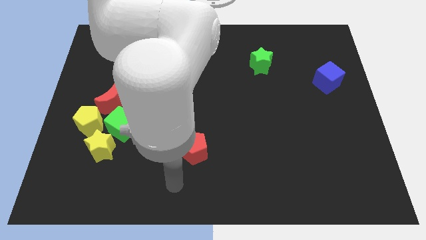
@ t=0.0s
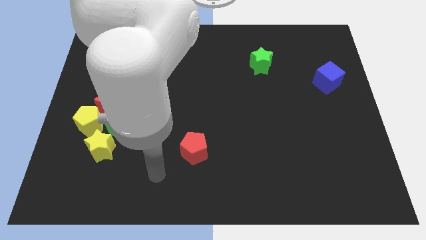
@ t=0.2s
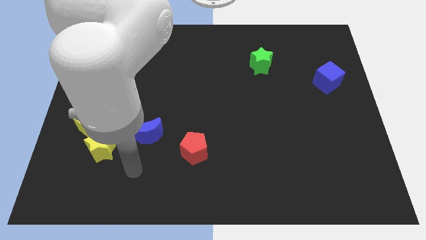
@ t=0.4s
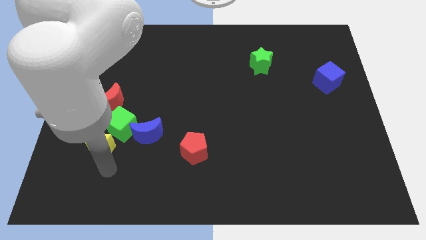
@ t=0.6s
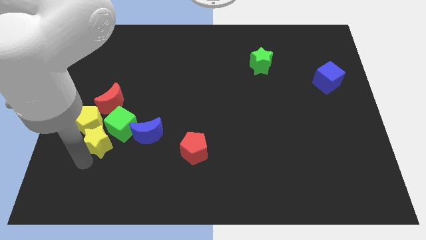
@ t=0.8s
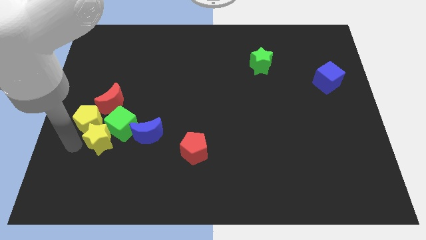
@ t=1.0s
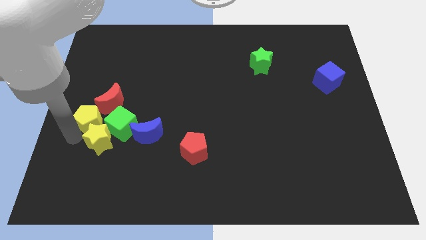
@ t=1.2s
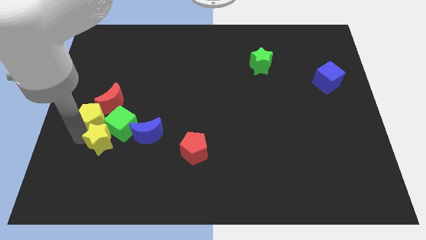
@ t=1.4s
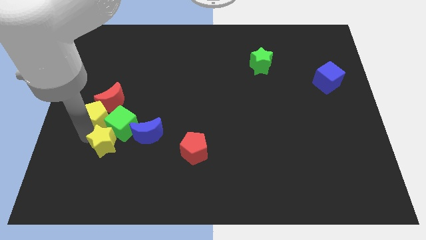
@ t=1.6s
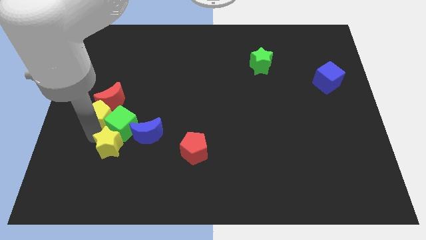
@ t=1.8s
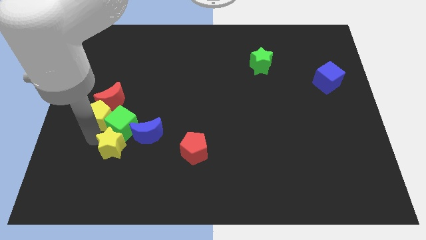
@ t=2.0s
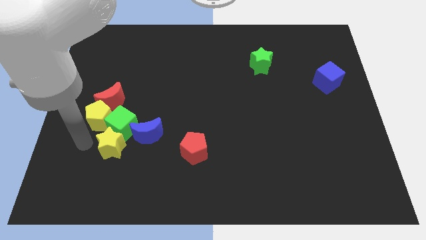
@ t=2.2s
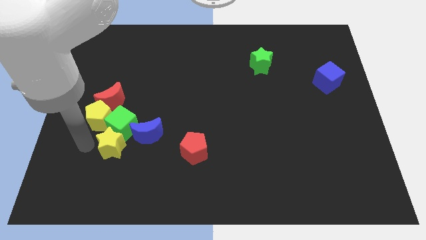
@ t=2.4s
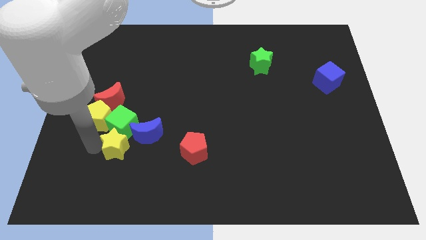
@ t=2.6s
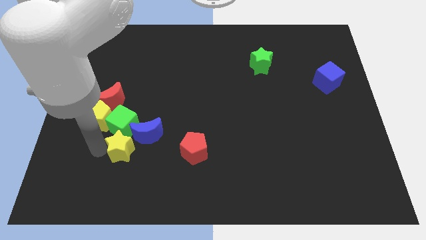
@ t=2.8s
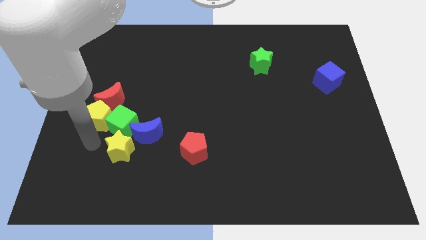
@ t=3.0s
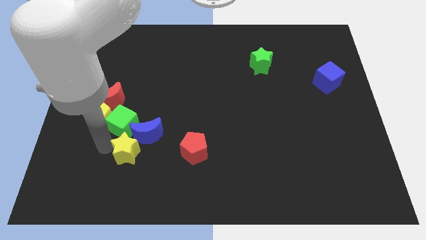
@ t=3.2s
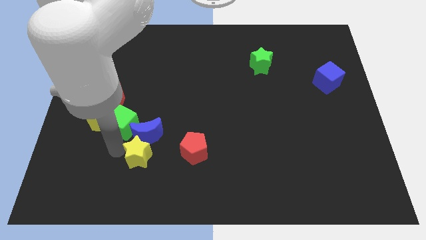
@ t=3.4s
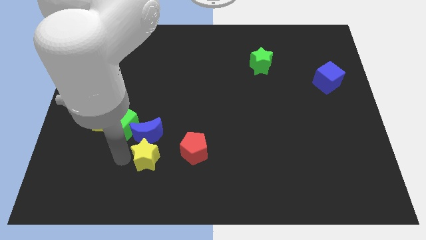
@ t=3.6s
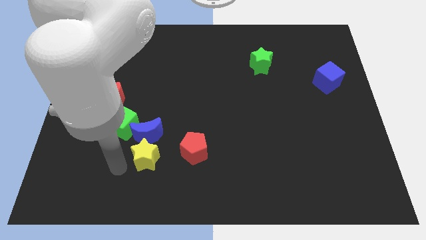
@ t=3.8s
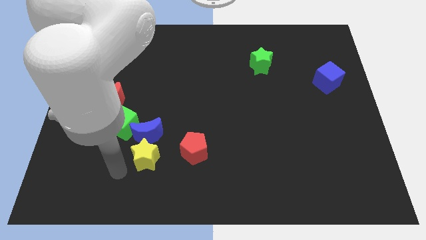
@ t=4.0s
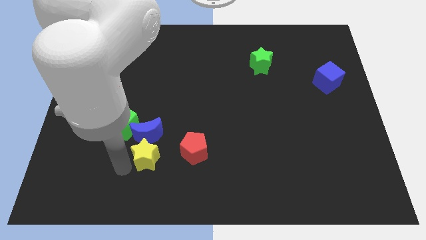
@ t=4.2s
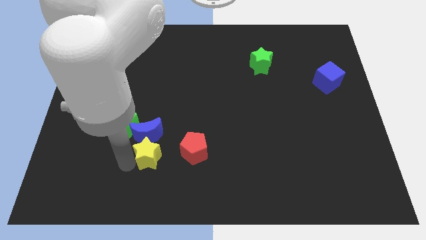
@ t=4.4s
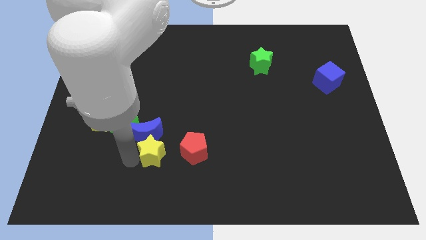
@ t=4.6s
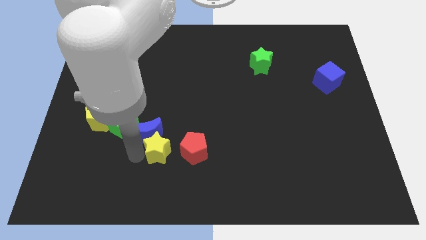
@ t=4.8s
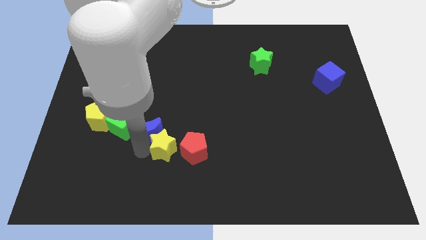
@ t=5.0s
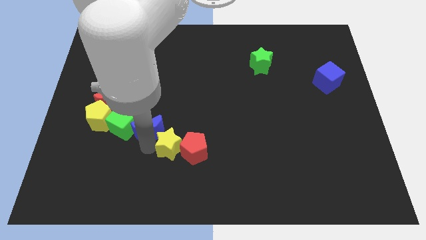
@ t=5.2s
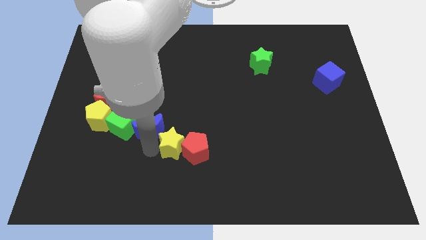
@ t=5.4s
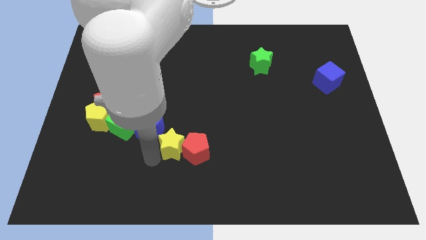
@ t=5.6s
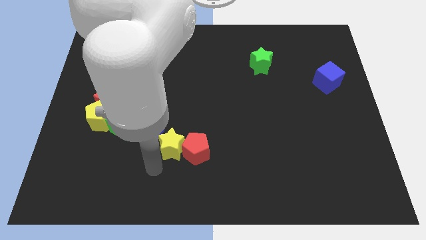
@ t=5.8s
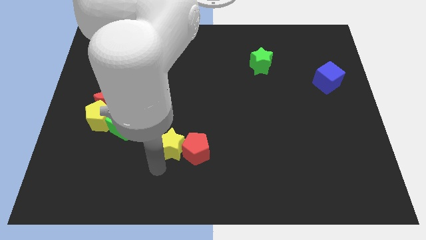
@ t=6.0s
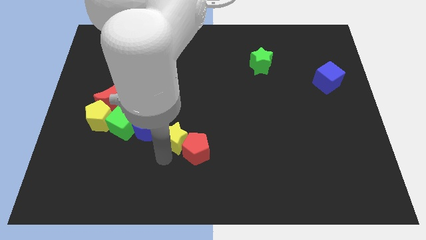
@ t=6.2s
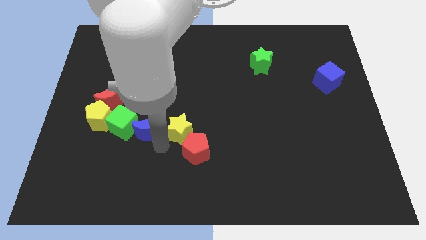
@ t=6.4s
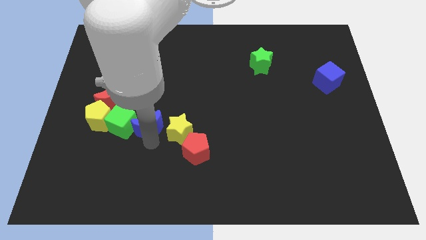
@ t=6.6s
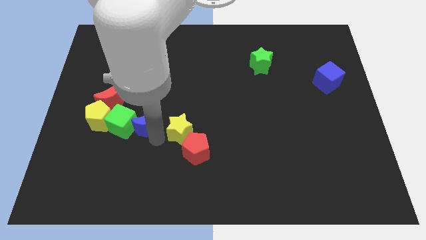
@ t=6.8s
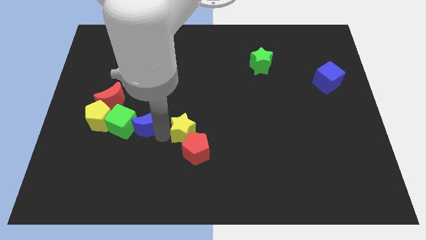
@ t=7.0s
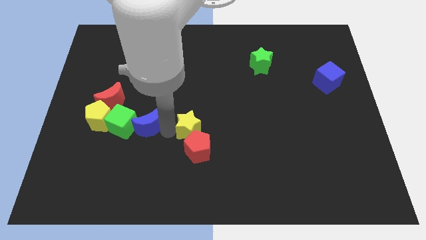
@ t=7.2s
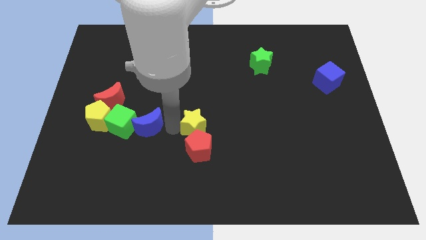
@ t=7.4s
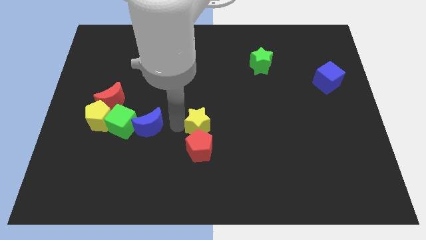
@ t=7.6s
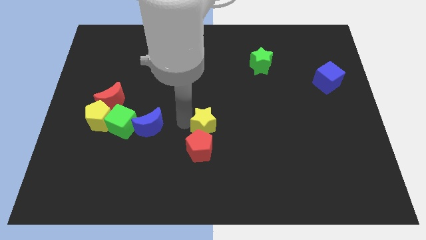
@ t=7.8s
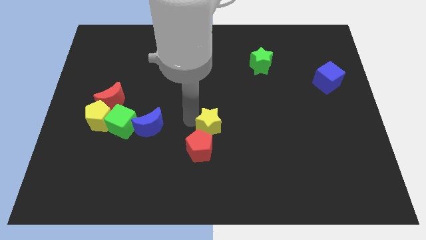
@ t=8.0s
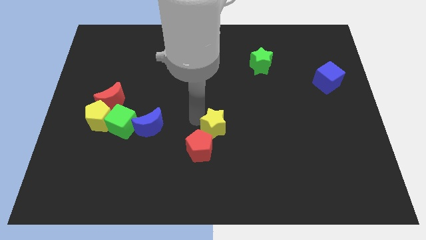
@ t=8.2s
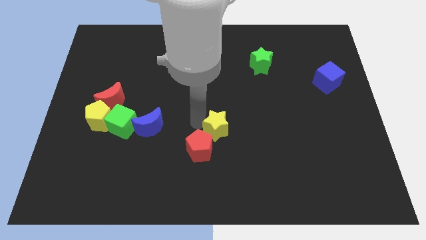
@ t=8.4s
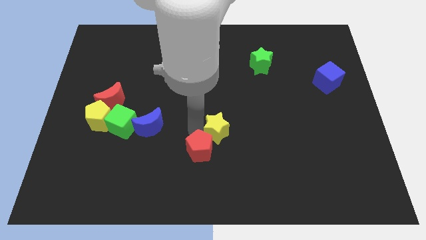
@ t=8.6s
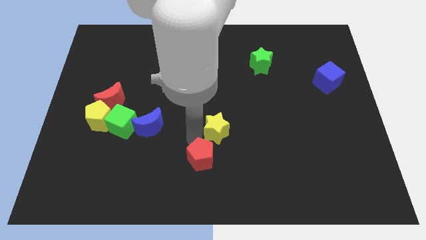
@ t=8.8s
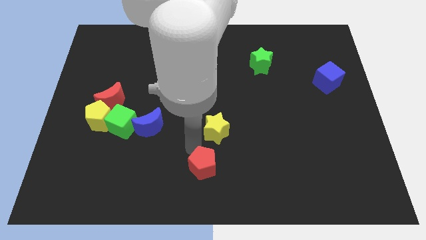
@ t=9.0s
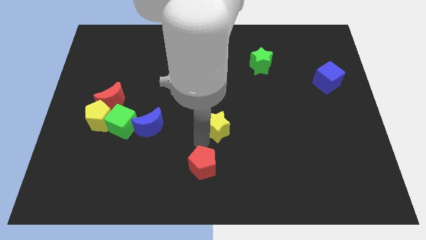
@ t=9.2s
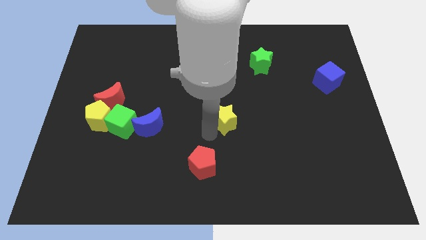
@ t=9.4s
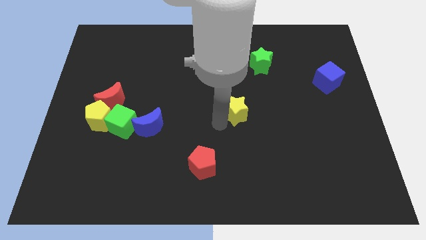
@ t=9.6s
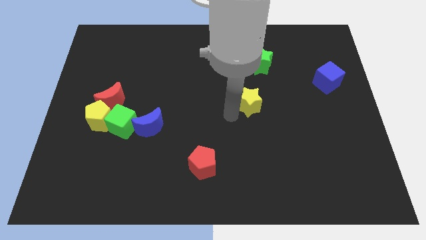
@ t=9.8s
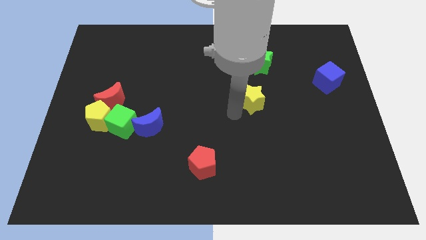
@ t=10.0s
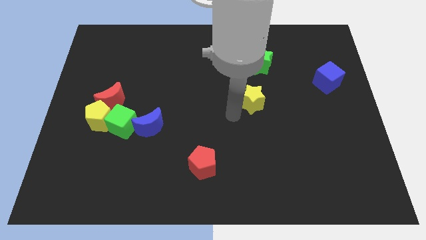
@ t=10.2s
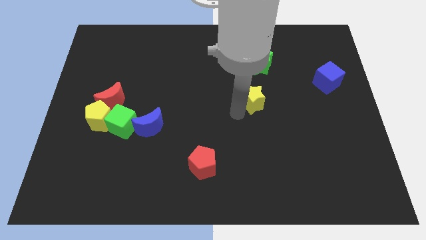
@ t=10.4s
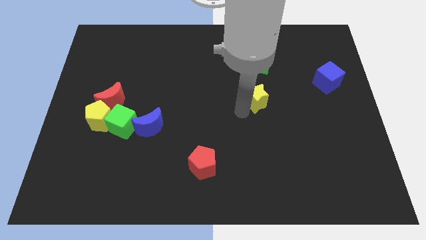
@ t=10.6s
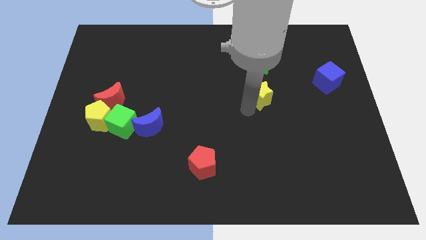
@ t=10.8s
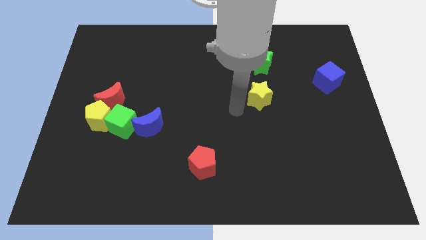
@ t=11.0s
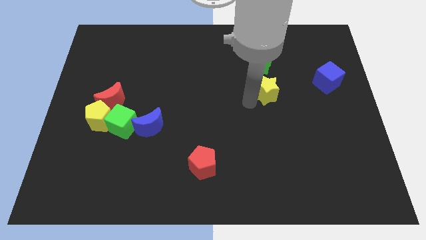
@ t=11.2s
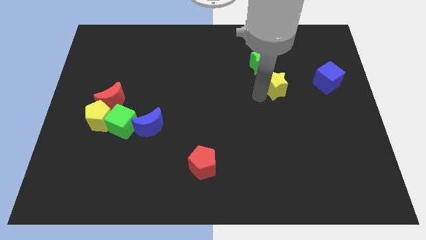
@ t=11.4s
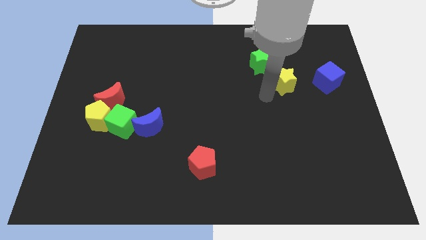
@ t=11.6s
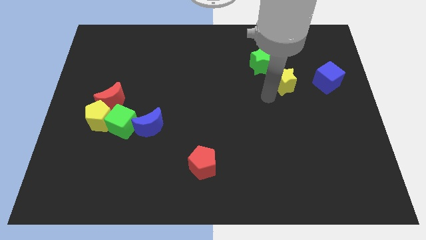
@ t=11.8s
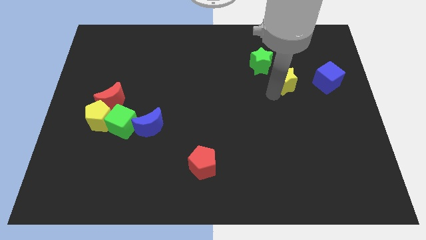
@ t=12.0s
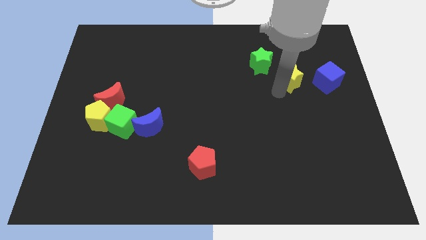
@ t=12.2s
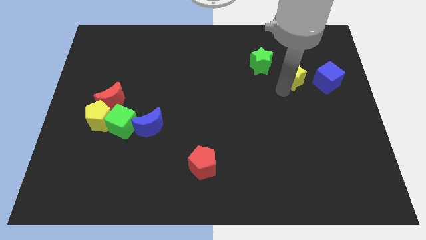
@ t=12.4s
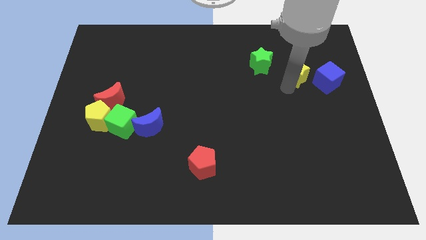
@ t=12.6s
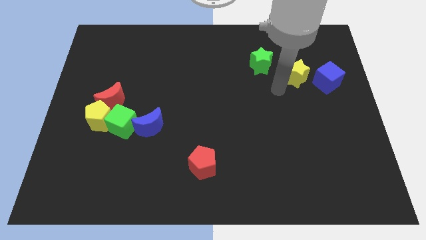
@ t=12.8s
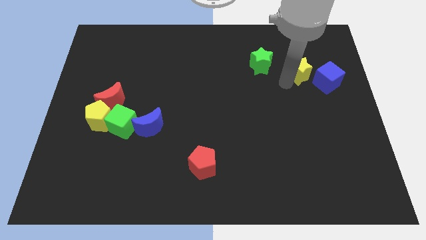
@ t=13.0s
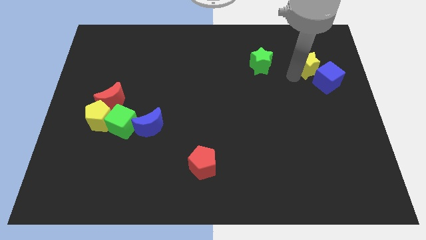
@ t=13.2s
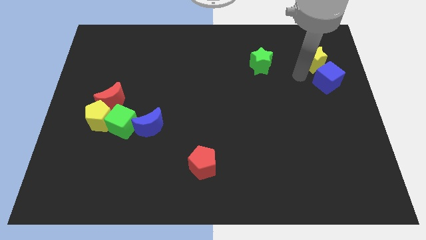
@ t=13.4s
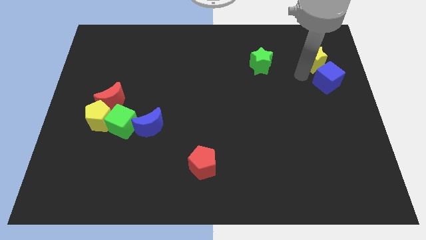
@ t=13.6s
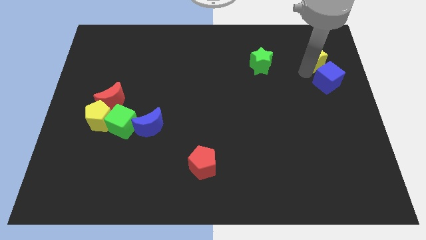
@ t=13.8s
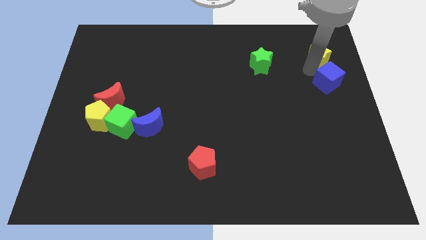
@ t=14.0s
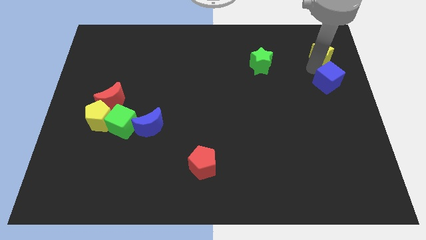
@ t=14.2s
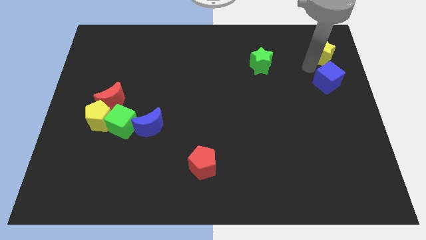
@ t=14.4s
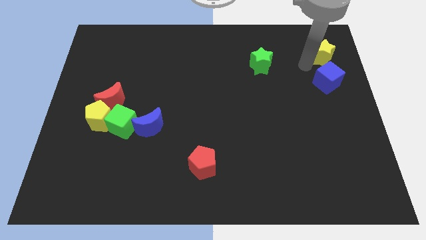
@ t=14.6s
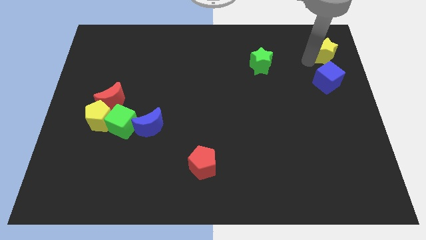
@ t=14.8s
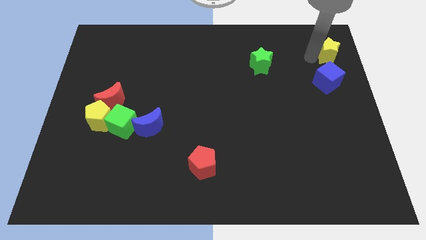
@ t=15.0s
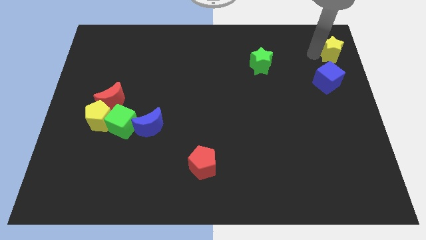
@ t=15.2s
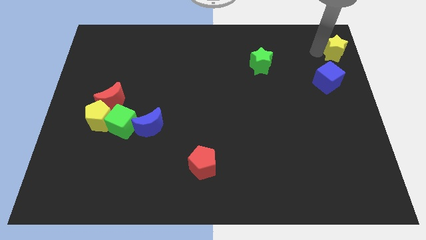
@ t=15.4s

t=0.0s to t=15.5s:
move the yellow star to the top right of the board
